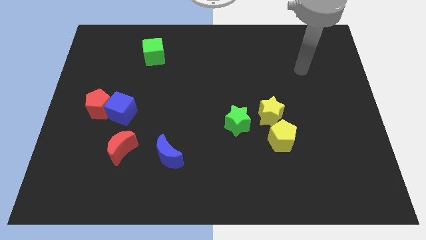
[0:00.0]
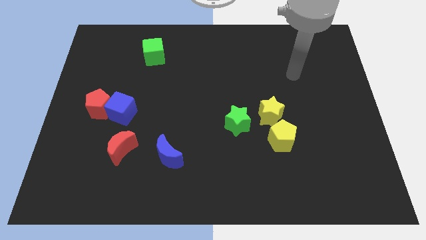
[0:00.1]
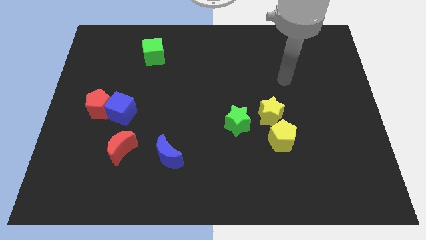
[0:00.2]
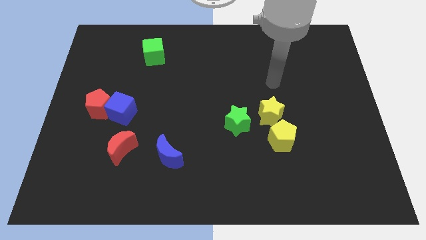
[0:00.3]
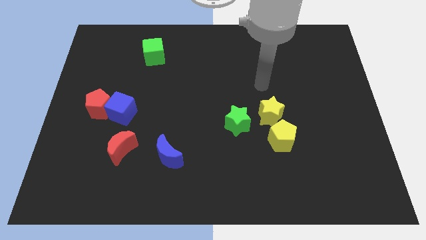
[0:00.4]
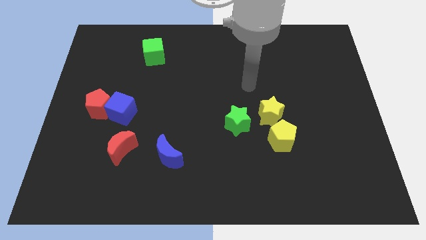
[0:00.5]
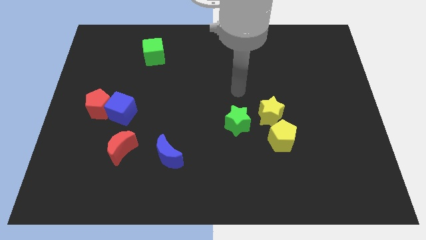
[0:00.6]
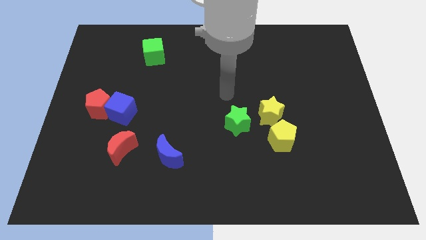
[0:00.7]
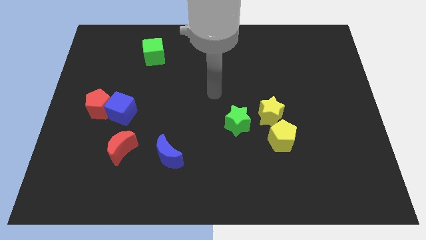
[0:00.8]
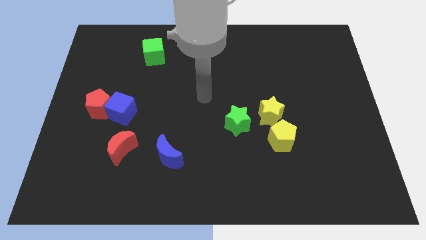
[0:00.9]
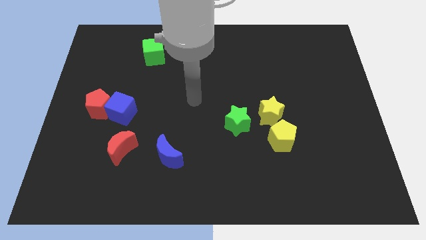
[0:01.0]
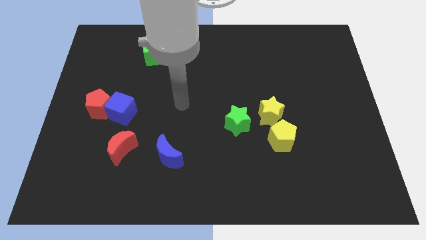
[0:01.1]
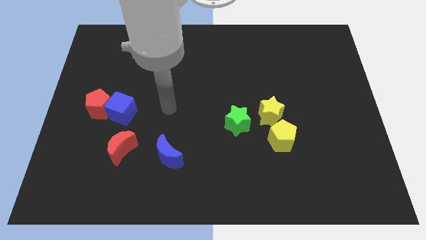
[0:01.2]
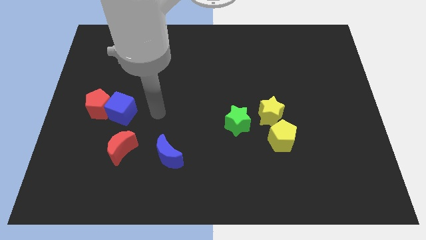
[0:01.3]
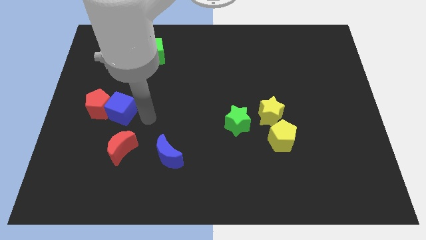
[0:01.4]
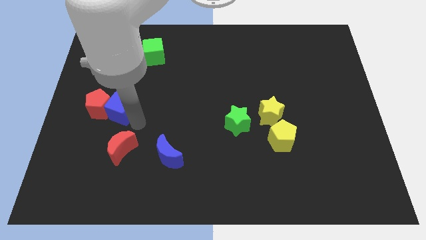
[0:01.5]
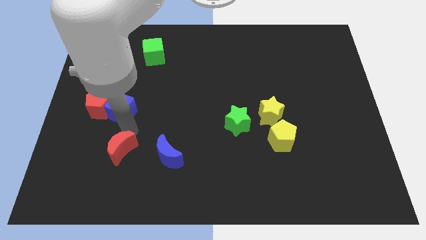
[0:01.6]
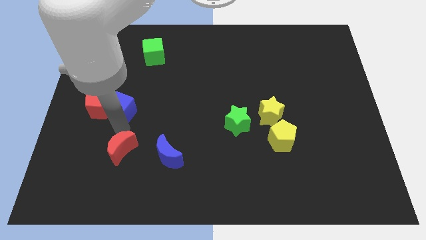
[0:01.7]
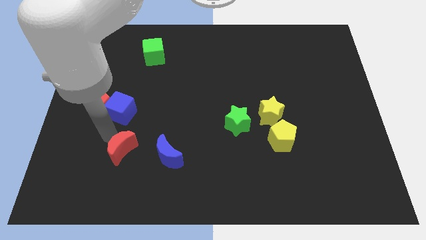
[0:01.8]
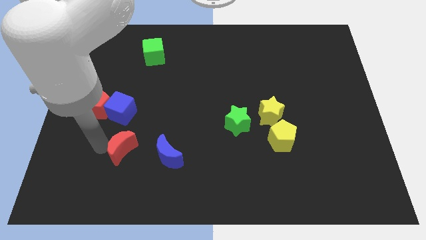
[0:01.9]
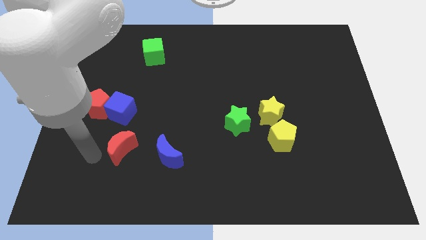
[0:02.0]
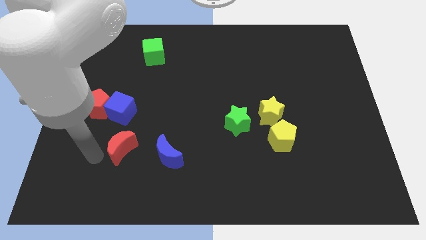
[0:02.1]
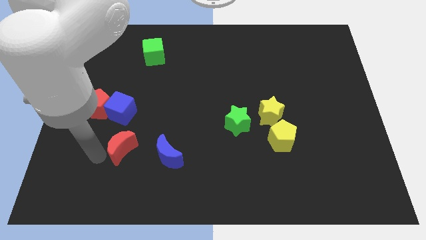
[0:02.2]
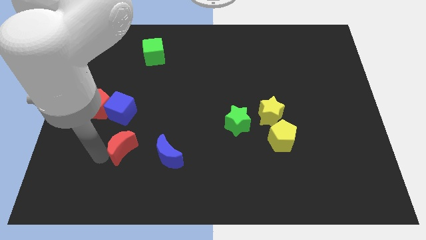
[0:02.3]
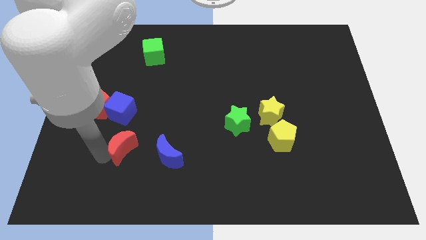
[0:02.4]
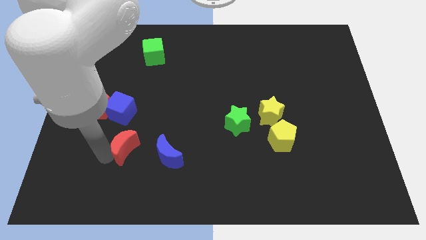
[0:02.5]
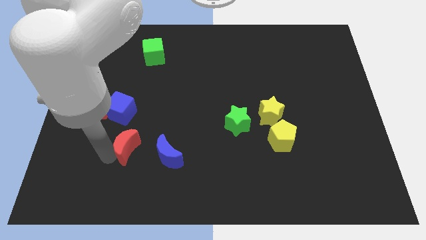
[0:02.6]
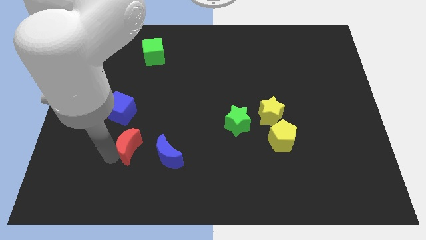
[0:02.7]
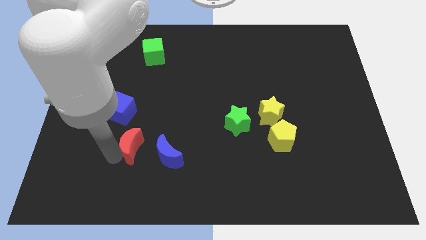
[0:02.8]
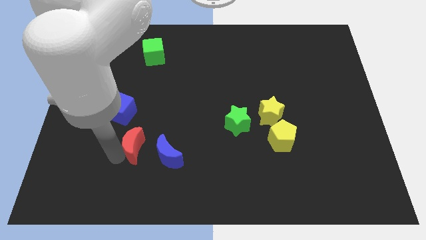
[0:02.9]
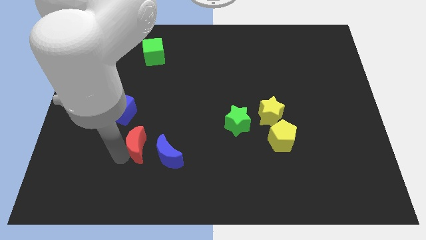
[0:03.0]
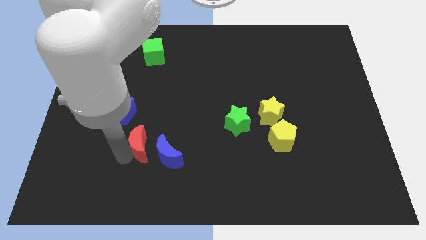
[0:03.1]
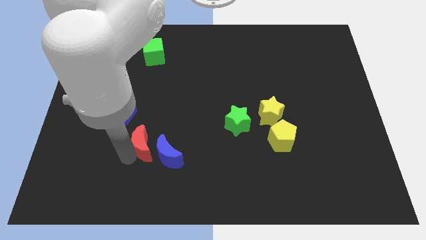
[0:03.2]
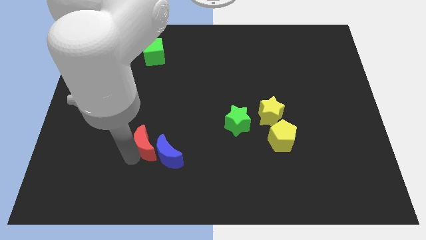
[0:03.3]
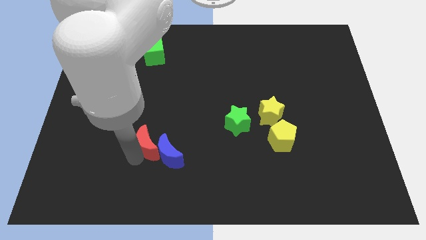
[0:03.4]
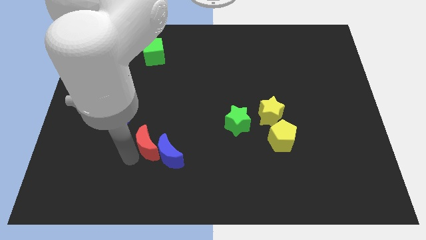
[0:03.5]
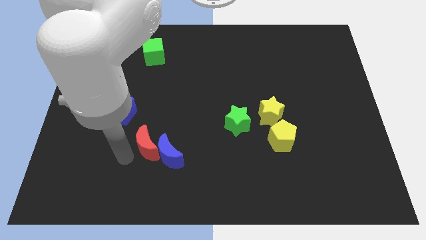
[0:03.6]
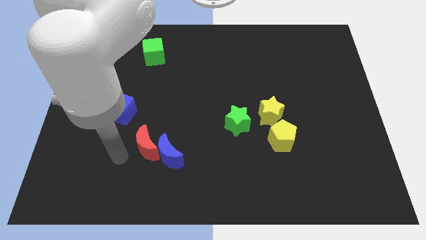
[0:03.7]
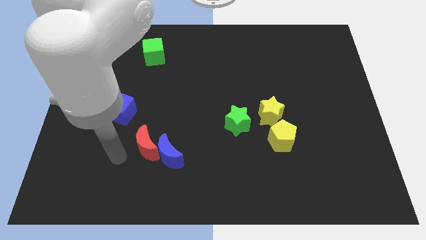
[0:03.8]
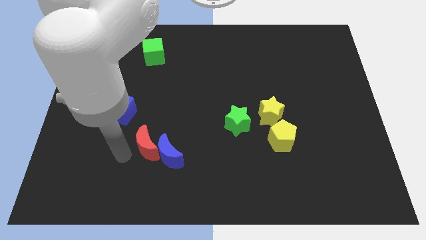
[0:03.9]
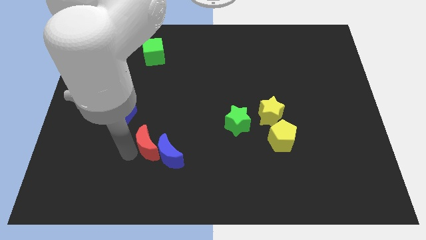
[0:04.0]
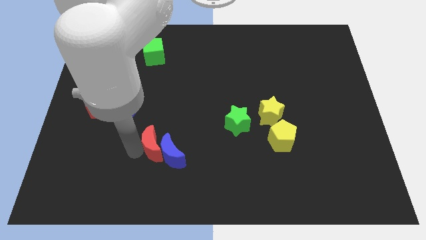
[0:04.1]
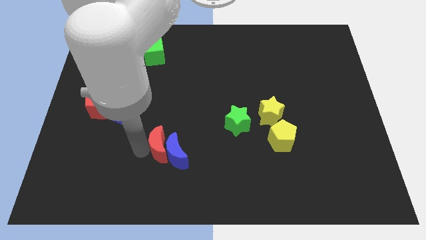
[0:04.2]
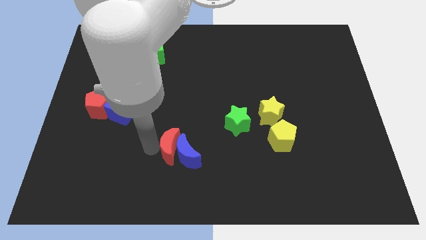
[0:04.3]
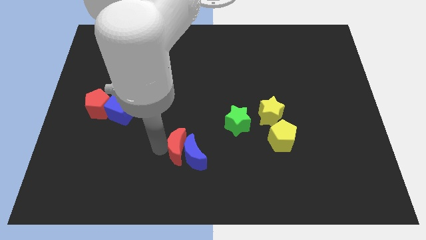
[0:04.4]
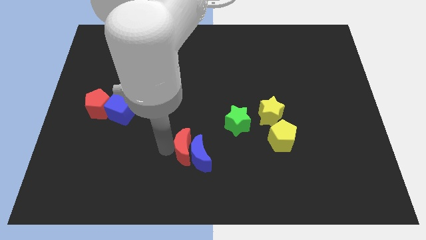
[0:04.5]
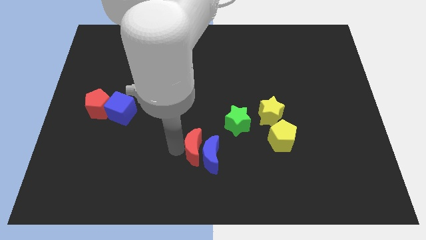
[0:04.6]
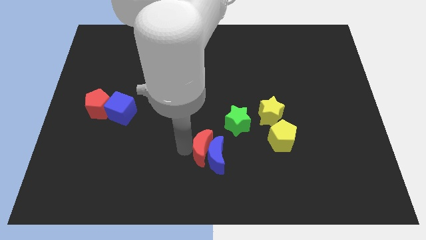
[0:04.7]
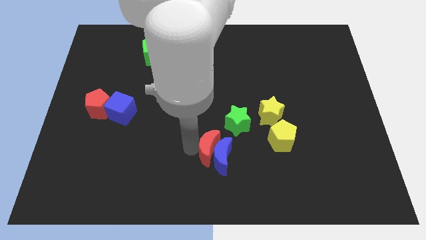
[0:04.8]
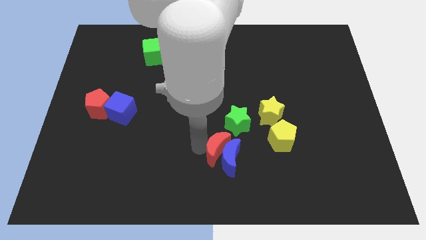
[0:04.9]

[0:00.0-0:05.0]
put the red moon to the bottom of the green star

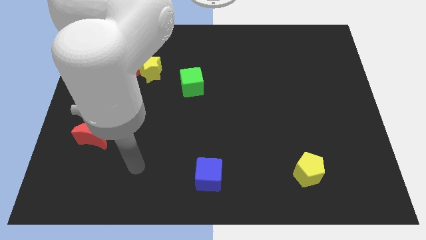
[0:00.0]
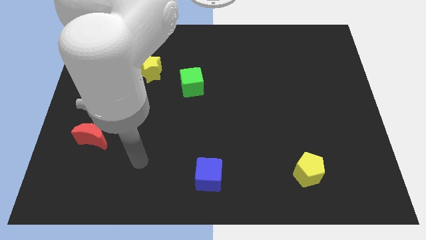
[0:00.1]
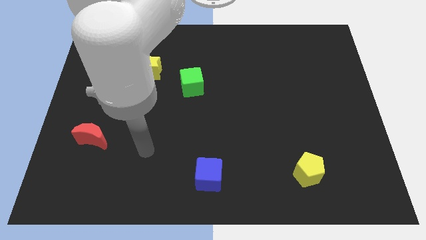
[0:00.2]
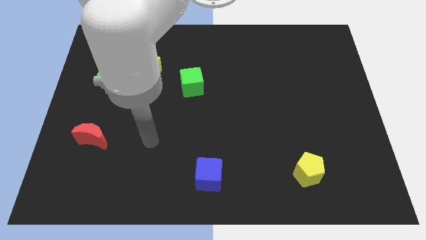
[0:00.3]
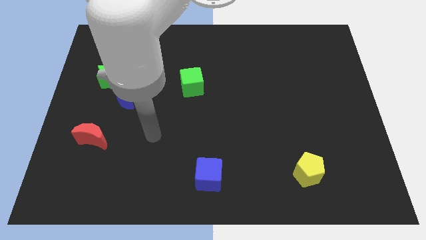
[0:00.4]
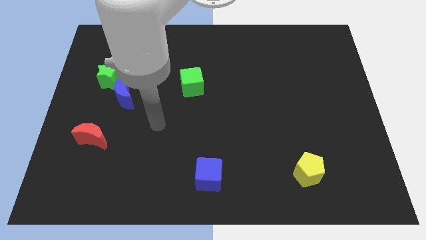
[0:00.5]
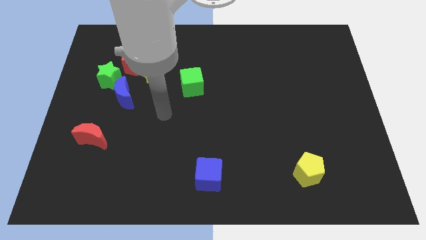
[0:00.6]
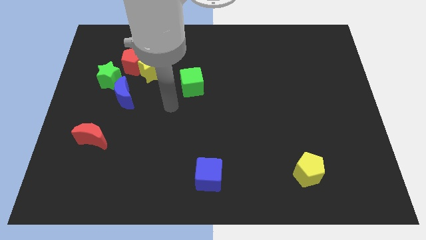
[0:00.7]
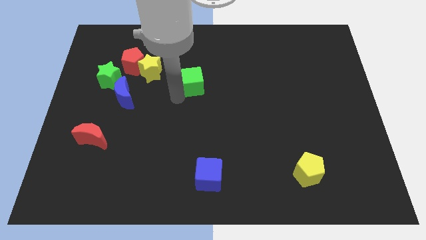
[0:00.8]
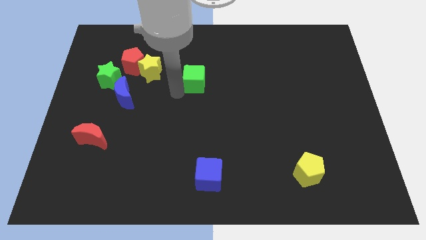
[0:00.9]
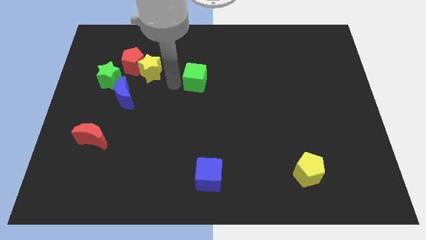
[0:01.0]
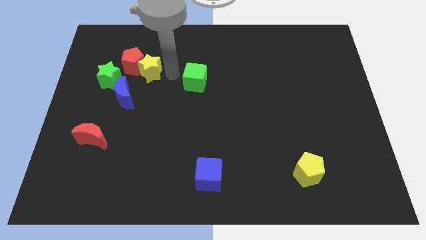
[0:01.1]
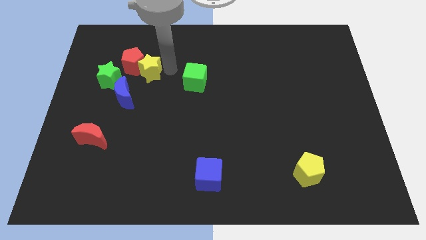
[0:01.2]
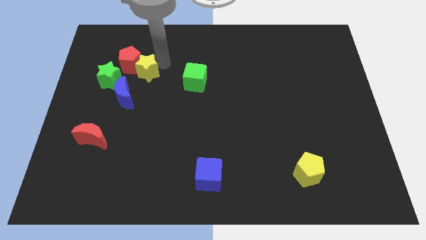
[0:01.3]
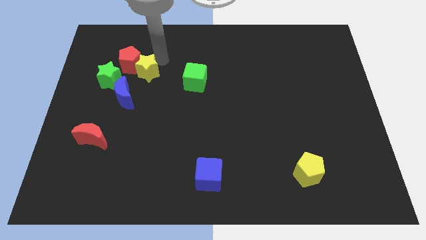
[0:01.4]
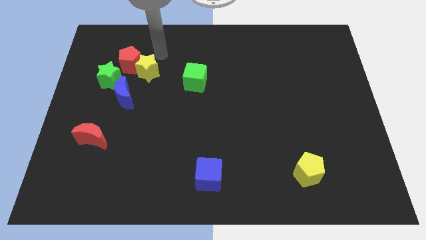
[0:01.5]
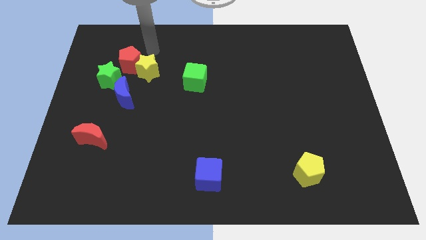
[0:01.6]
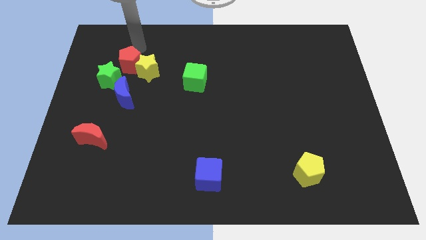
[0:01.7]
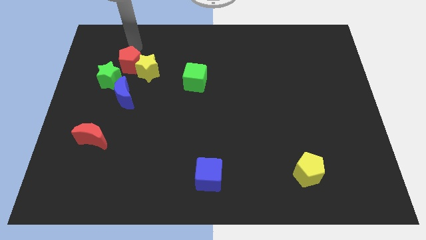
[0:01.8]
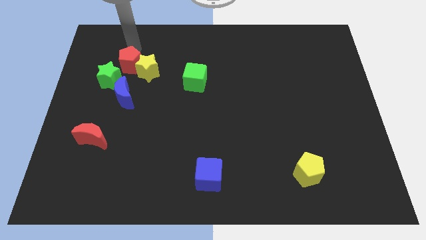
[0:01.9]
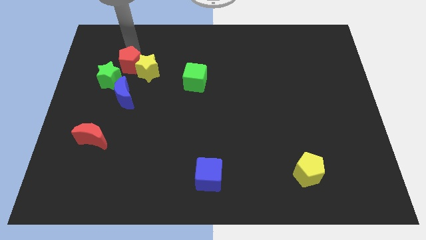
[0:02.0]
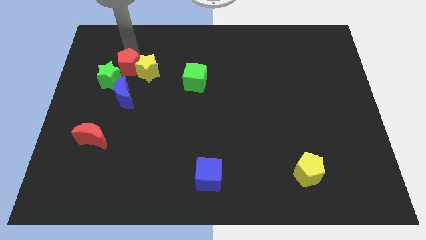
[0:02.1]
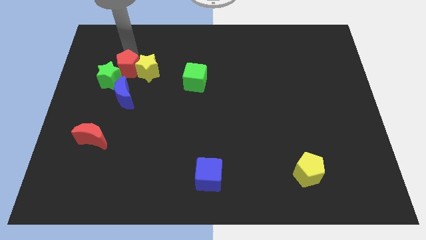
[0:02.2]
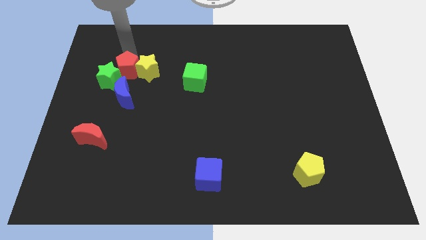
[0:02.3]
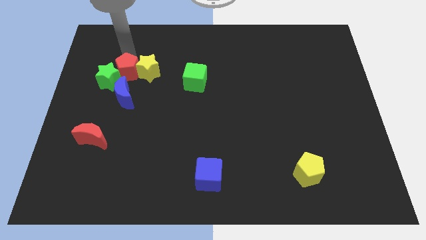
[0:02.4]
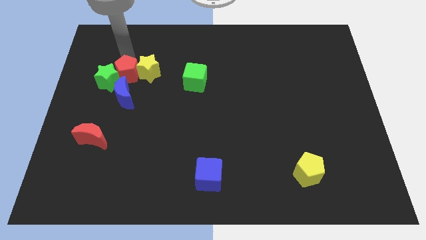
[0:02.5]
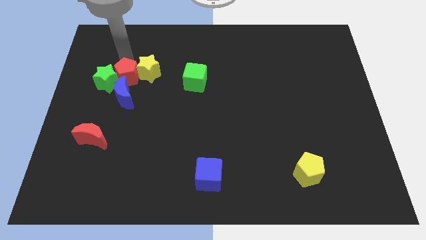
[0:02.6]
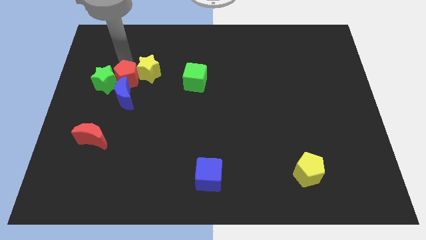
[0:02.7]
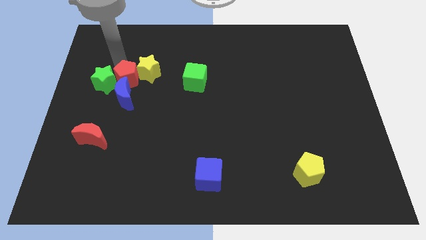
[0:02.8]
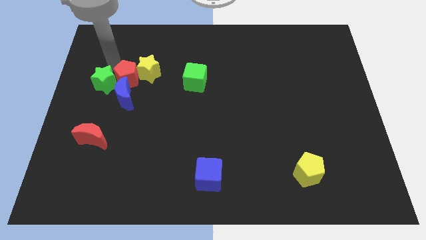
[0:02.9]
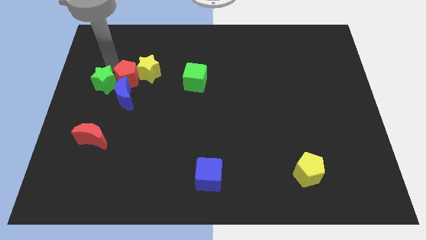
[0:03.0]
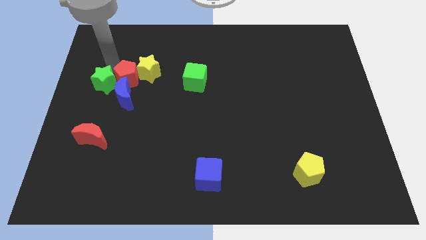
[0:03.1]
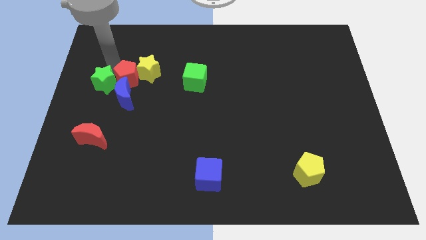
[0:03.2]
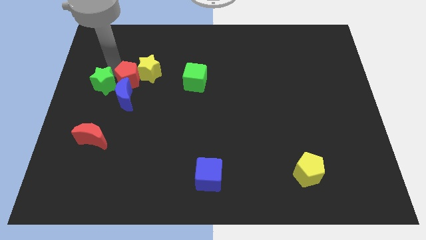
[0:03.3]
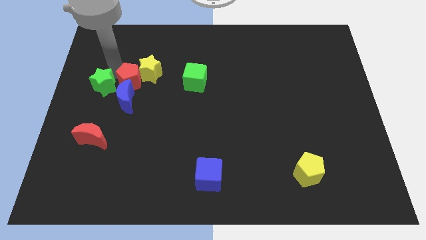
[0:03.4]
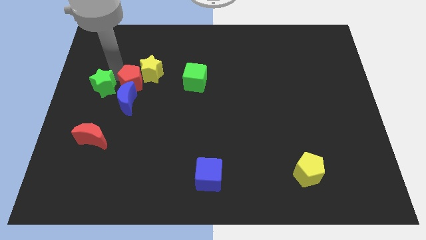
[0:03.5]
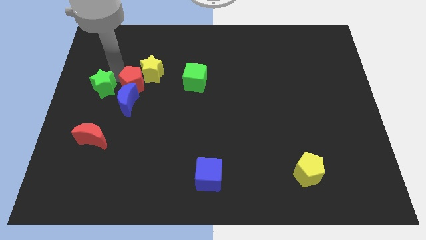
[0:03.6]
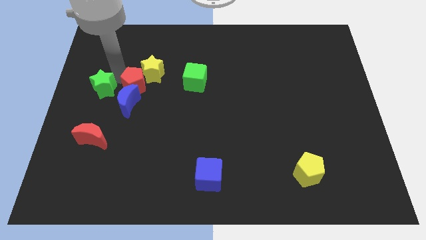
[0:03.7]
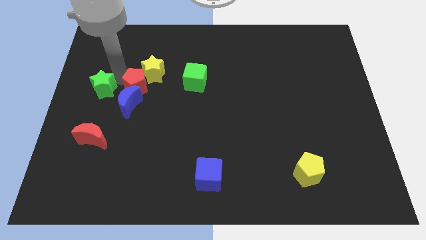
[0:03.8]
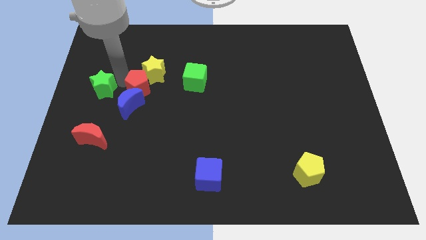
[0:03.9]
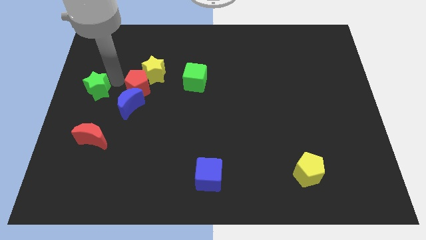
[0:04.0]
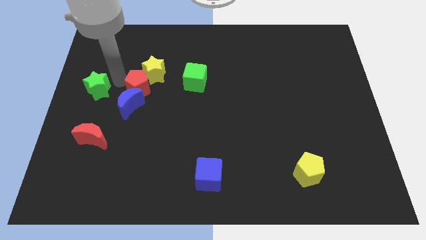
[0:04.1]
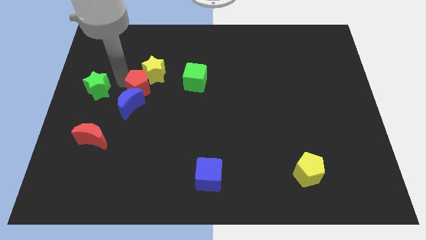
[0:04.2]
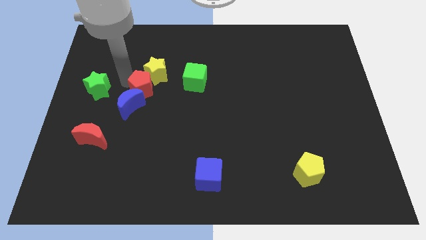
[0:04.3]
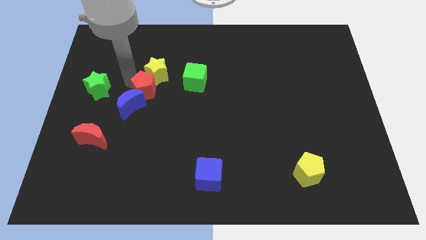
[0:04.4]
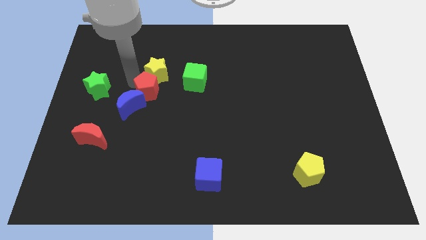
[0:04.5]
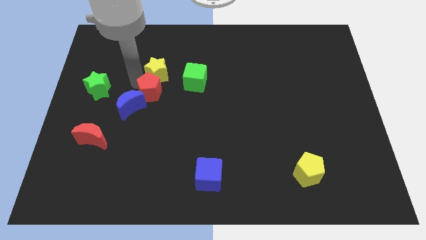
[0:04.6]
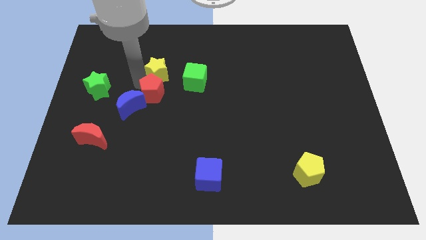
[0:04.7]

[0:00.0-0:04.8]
put the red pentagon to the bottom left of the green cube
